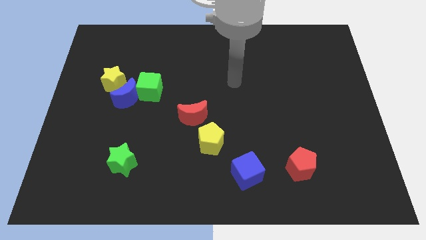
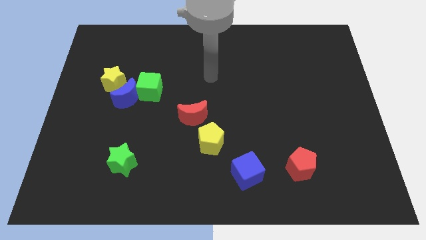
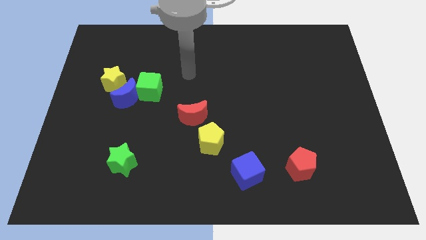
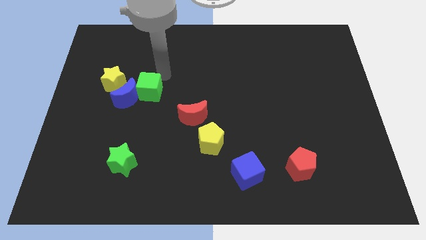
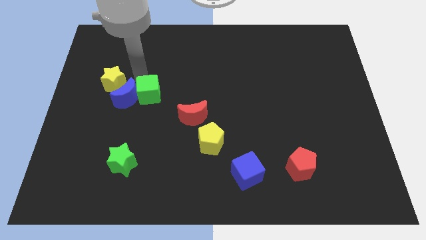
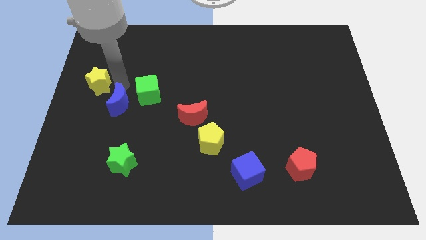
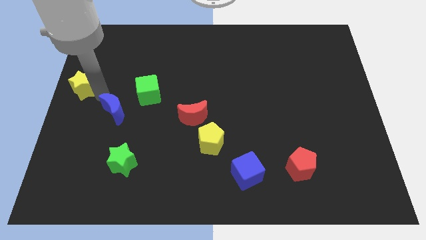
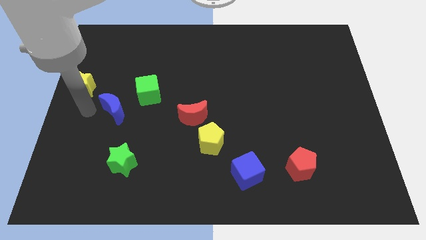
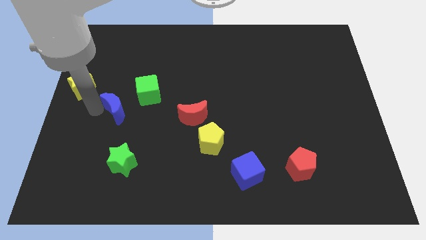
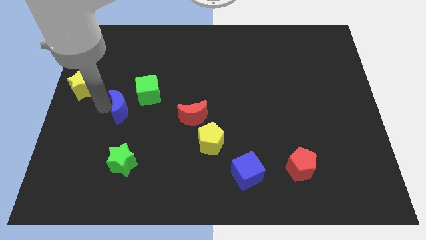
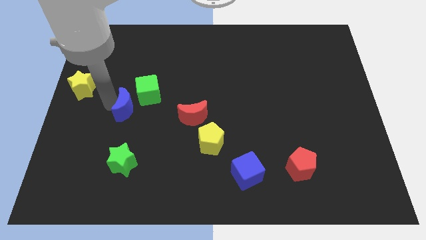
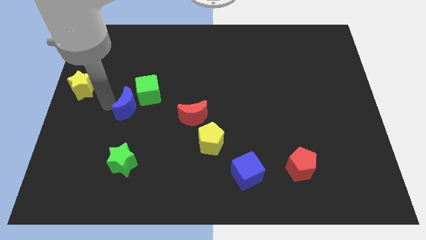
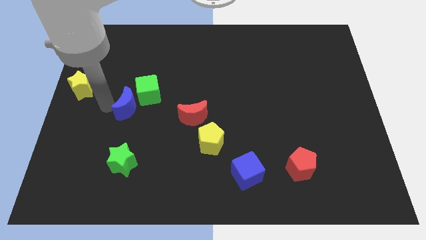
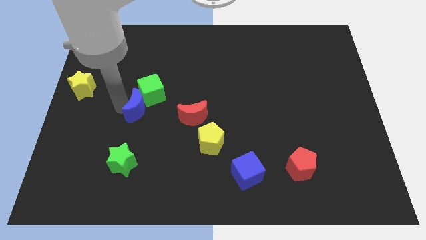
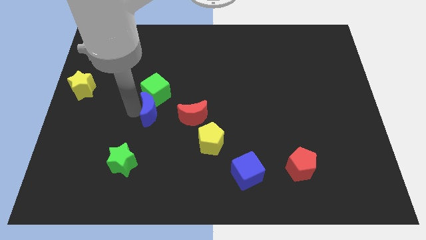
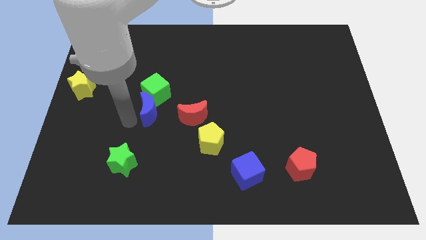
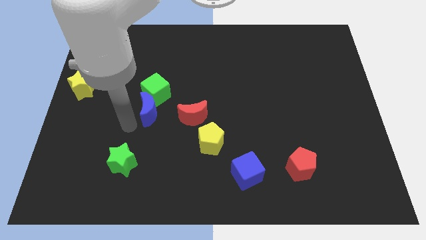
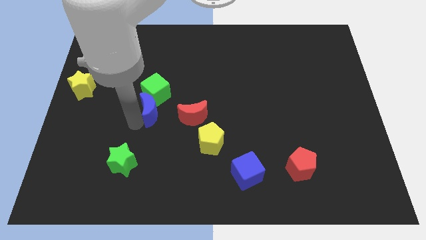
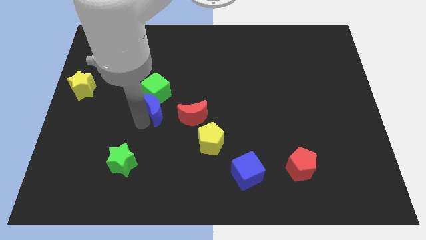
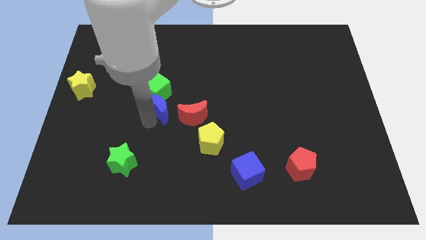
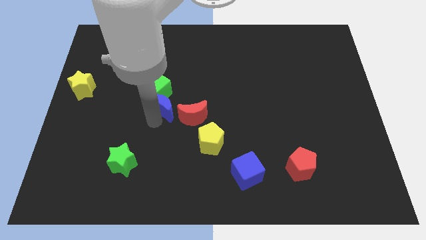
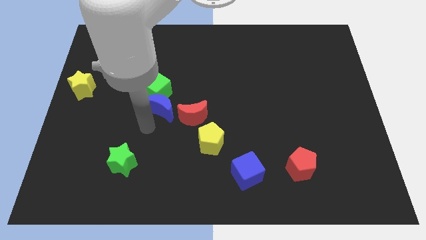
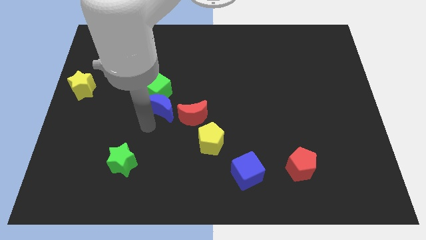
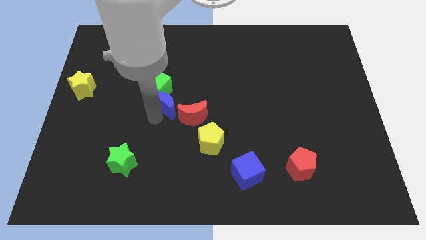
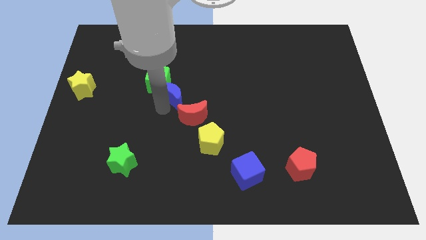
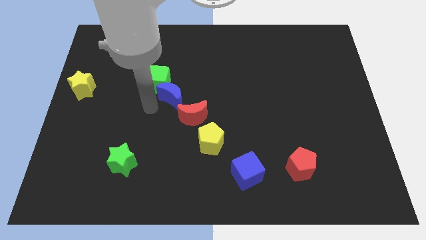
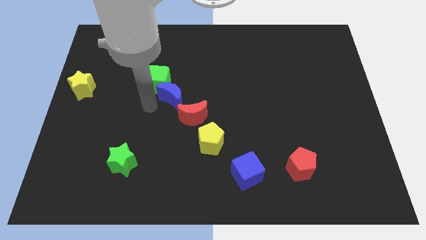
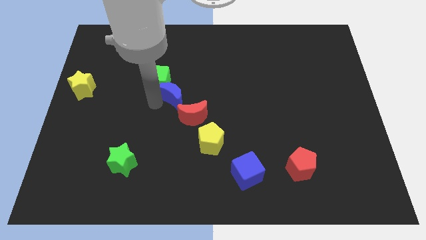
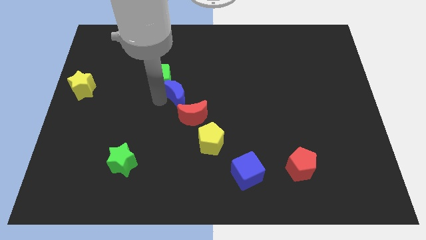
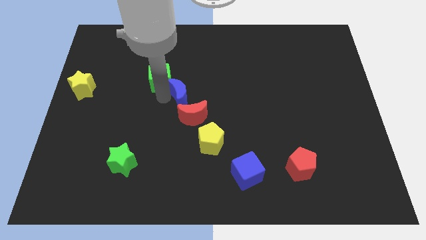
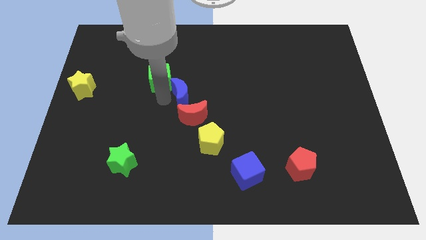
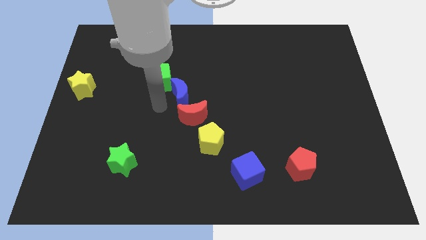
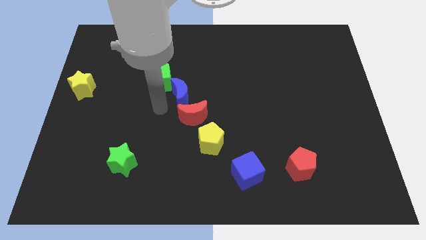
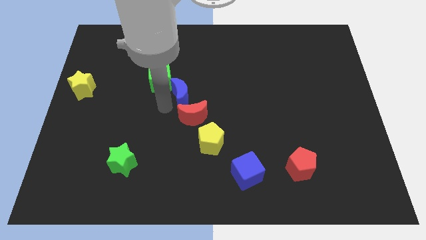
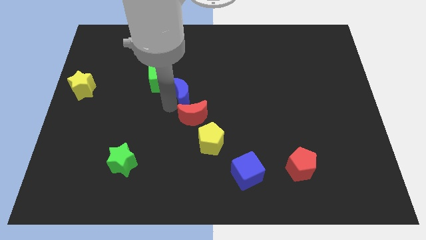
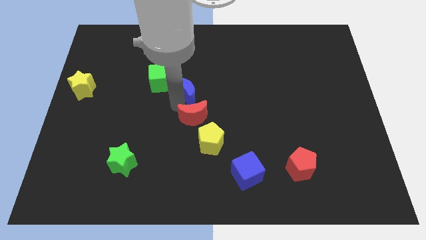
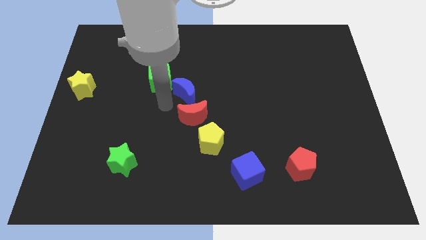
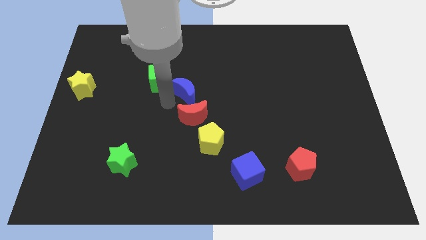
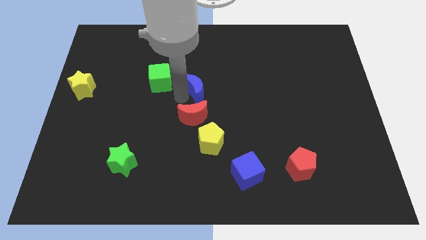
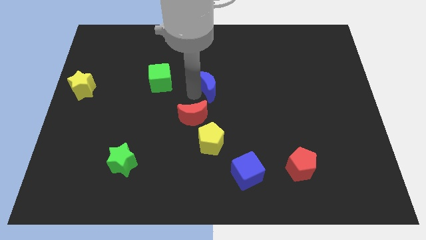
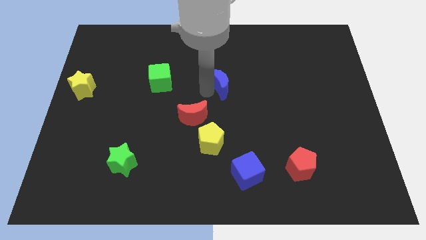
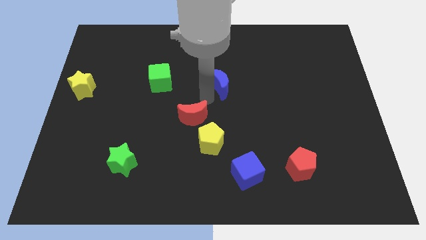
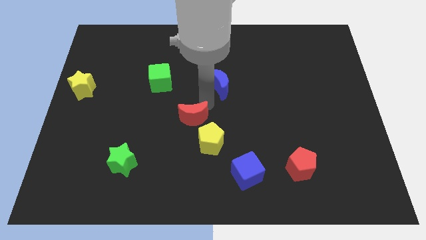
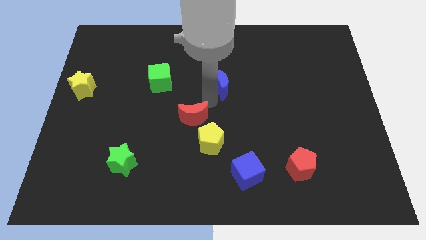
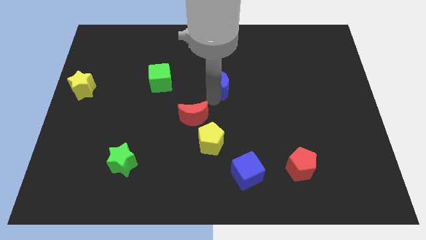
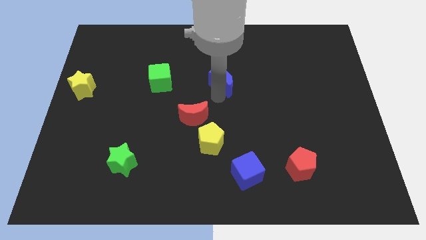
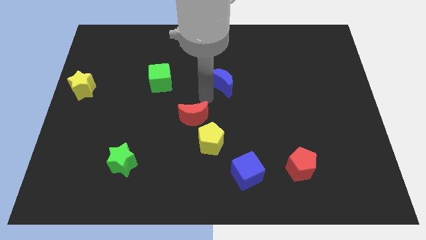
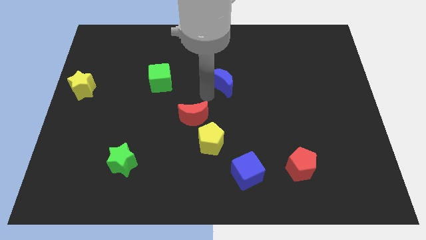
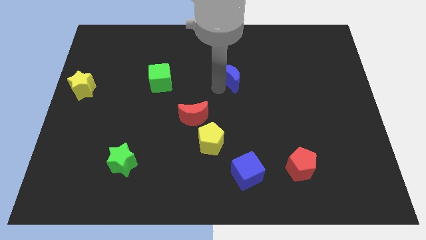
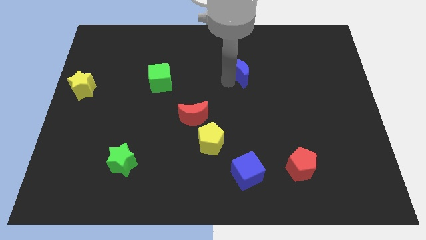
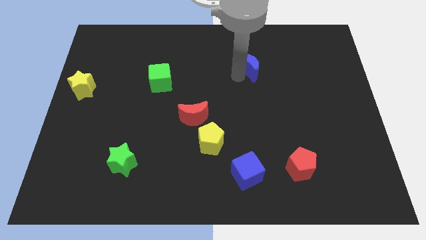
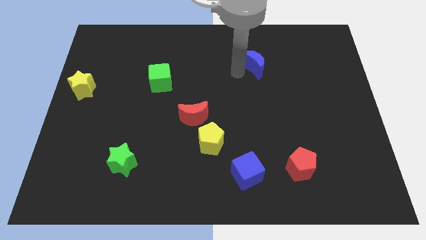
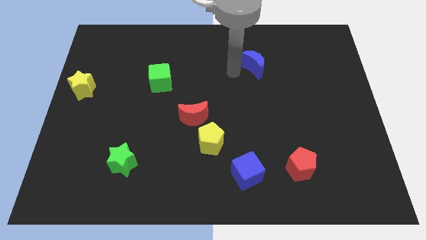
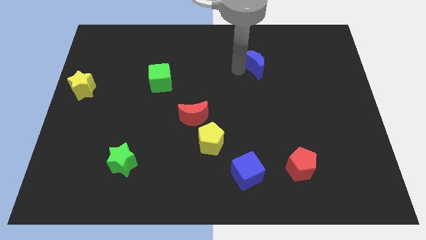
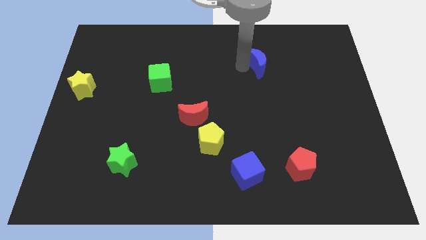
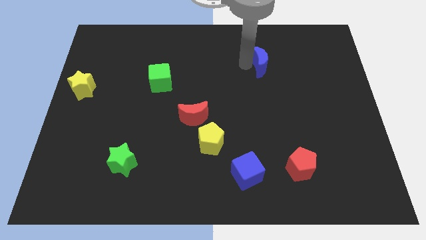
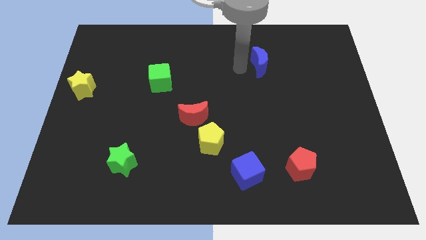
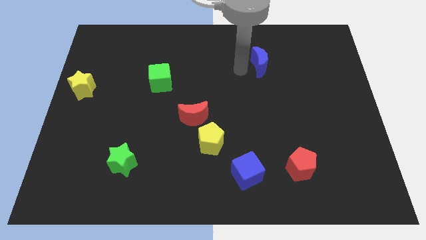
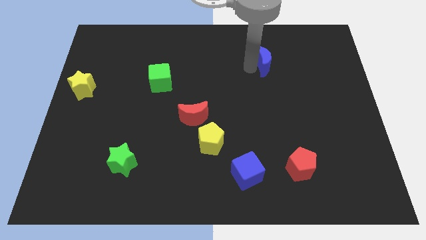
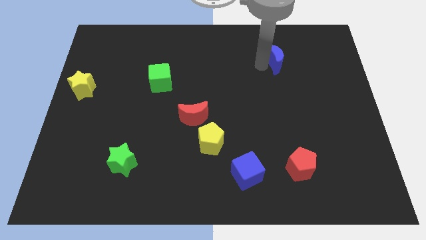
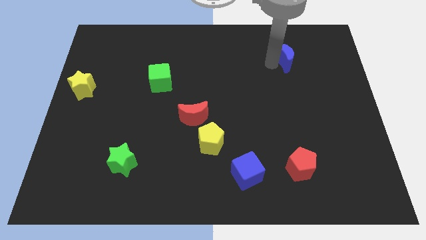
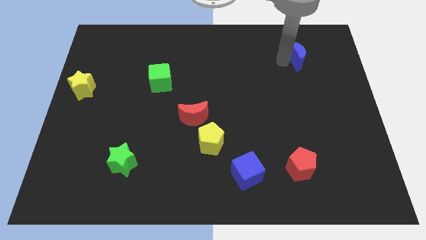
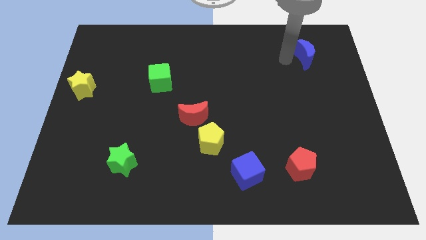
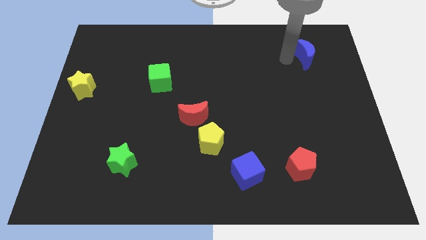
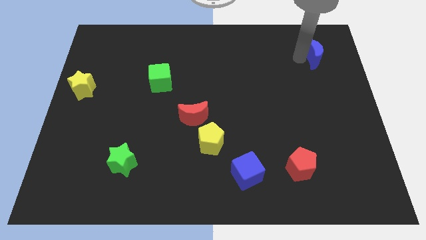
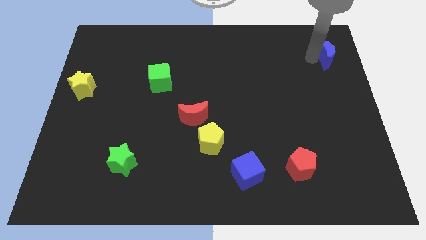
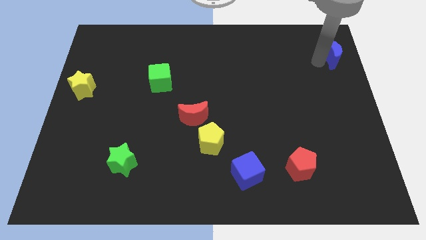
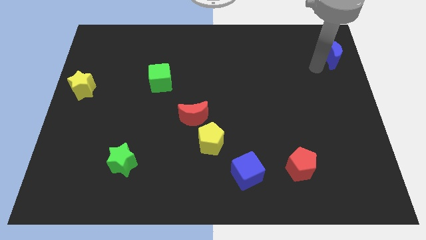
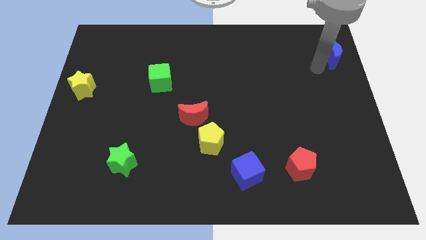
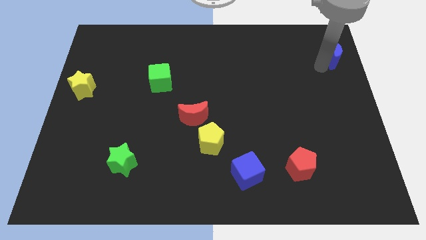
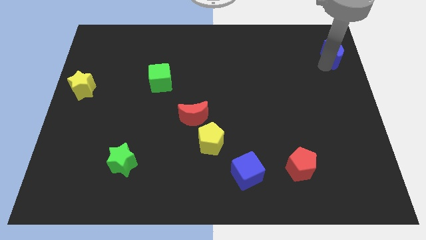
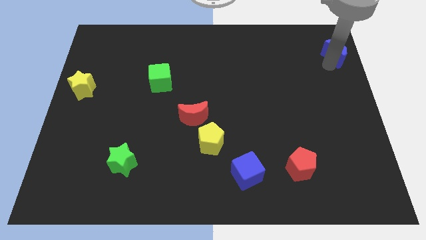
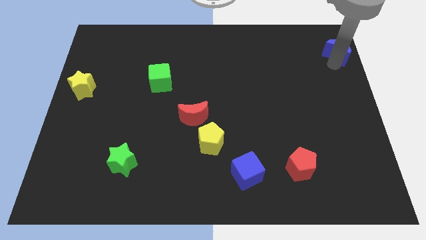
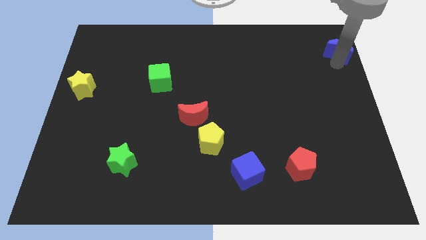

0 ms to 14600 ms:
push the blue moon to the top right

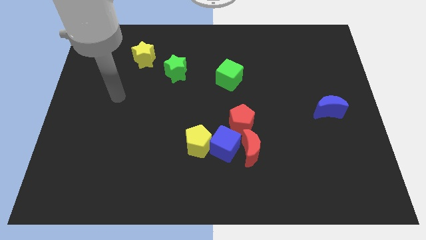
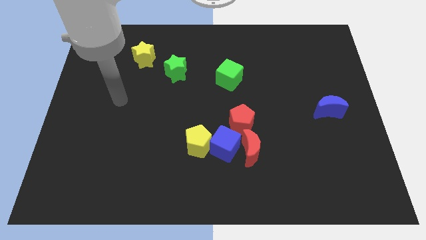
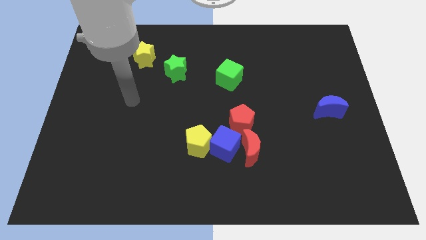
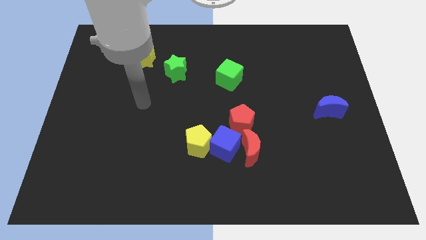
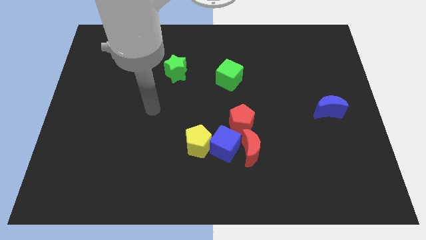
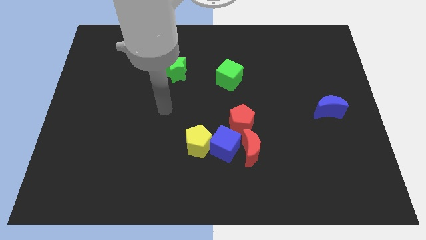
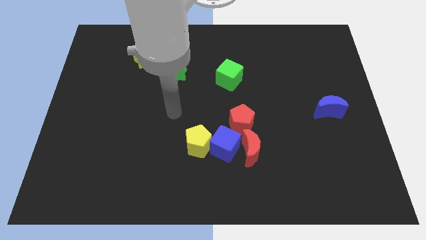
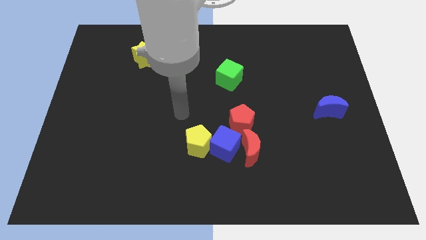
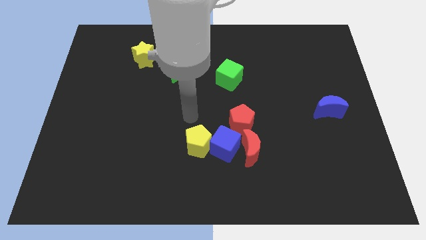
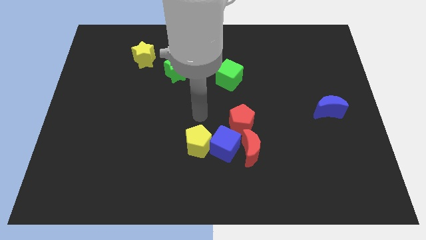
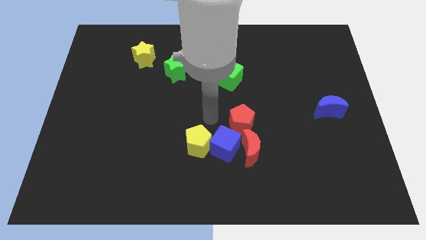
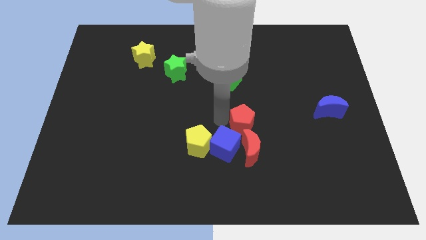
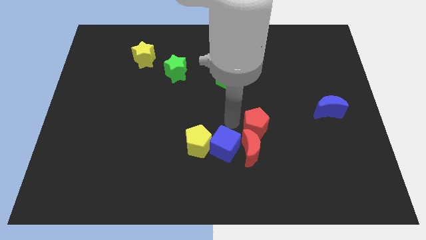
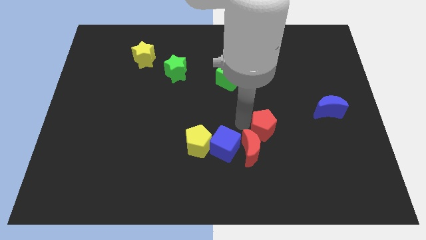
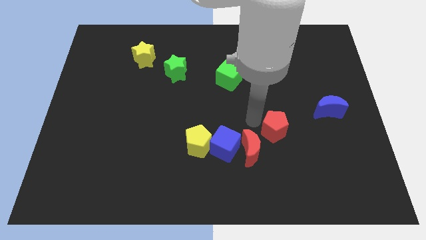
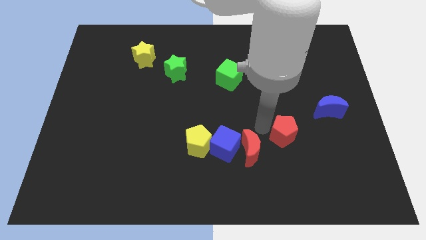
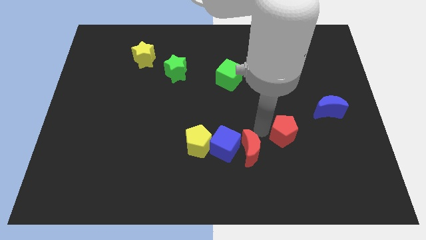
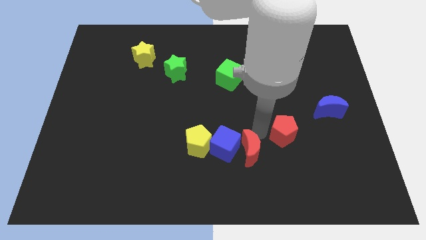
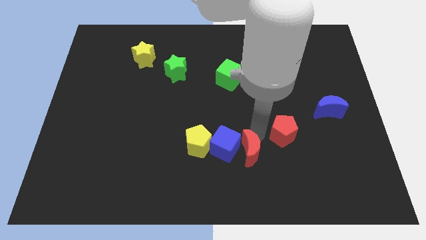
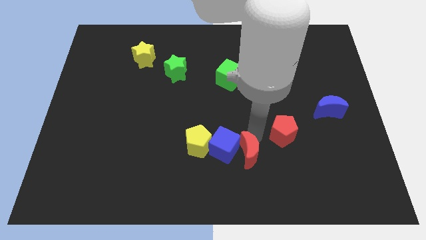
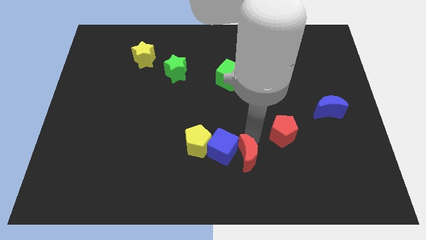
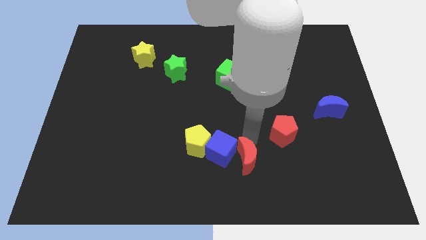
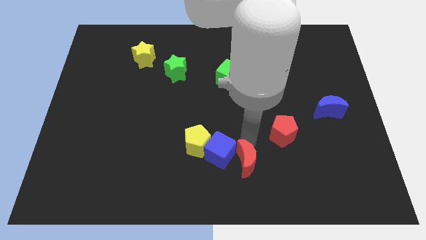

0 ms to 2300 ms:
push the red moon to the bottom side
